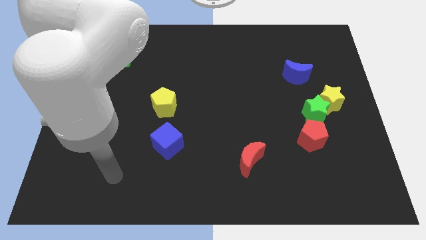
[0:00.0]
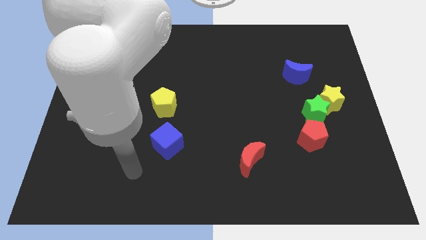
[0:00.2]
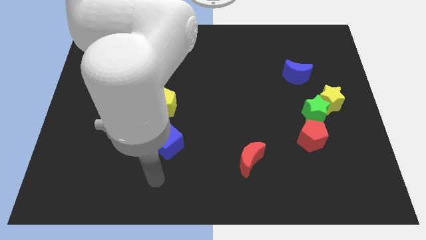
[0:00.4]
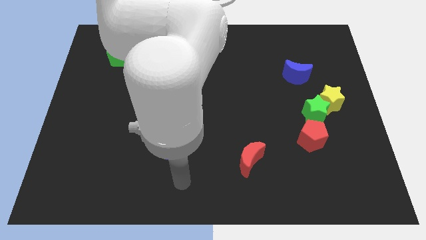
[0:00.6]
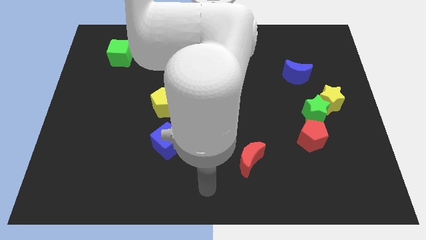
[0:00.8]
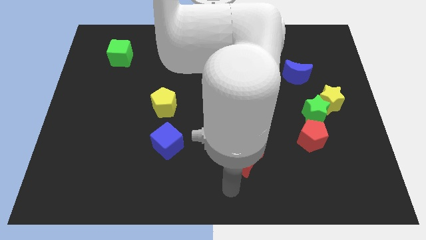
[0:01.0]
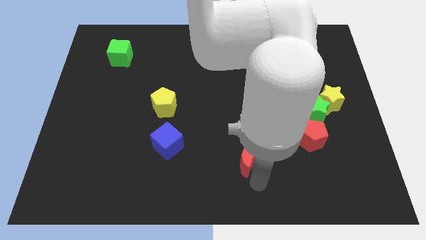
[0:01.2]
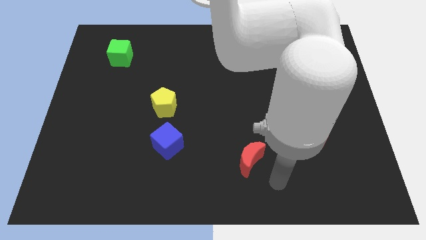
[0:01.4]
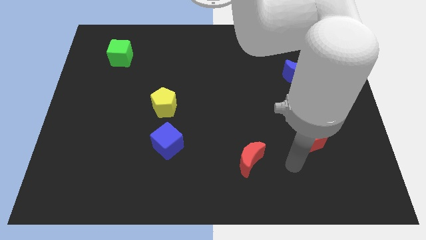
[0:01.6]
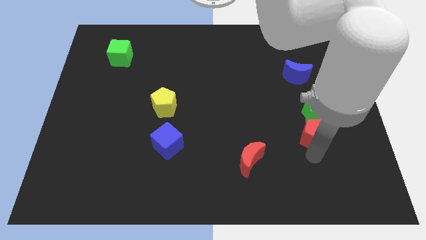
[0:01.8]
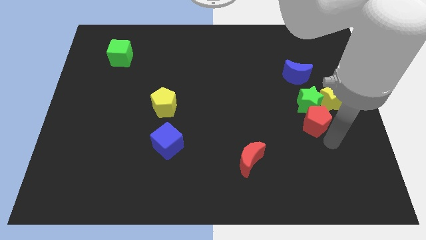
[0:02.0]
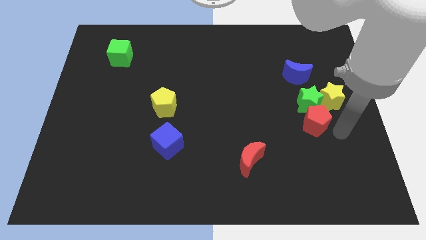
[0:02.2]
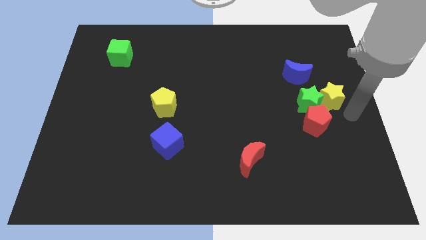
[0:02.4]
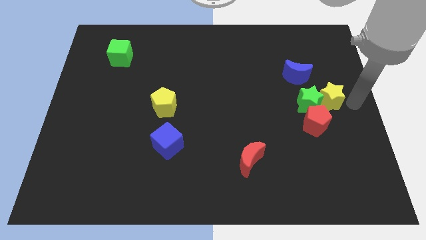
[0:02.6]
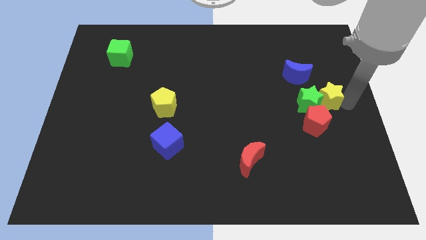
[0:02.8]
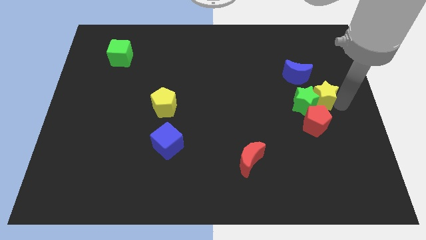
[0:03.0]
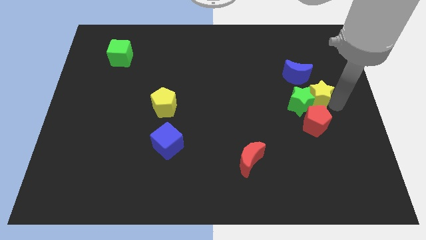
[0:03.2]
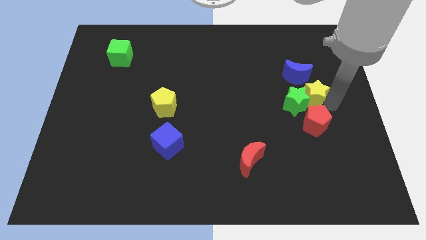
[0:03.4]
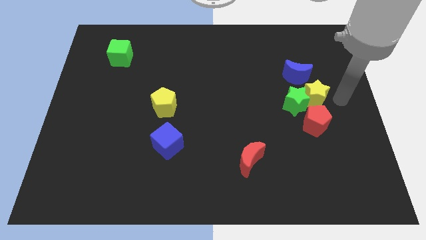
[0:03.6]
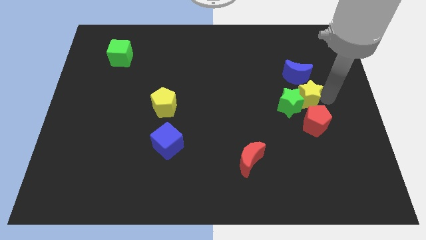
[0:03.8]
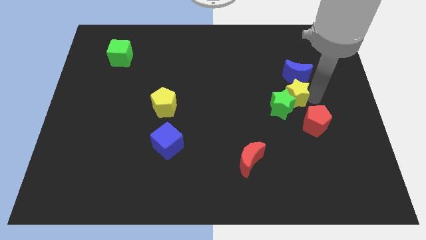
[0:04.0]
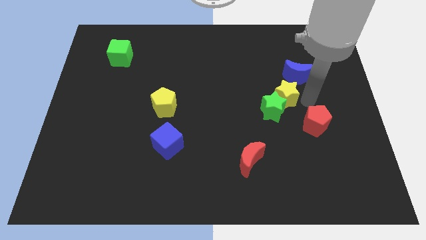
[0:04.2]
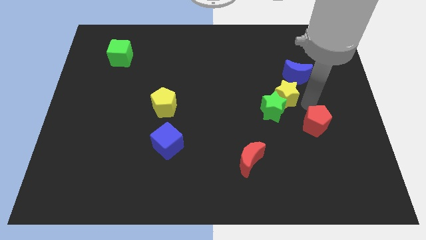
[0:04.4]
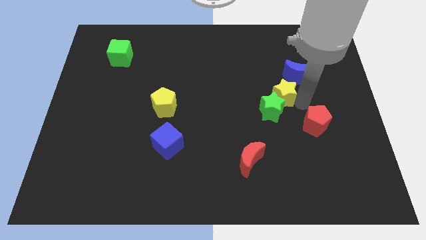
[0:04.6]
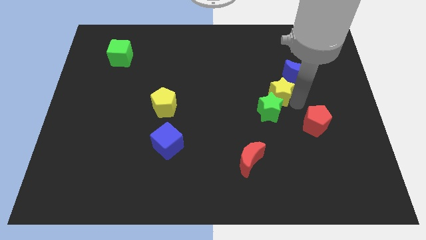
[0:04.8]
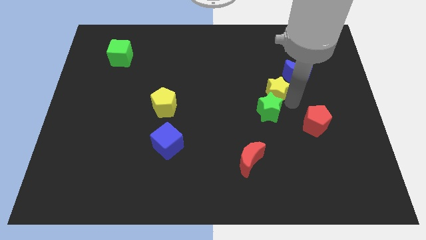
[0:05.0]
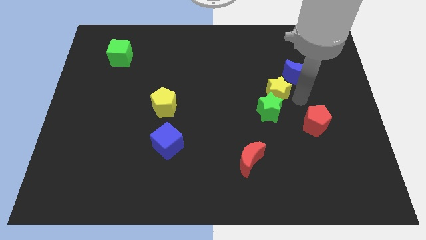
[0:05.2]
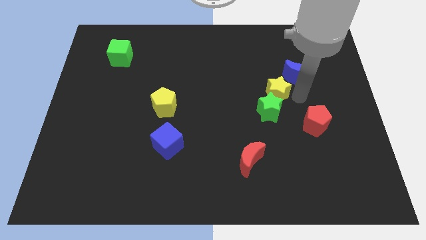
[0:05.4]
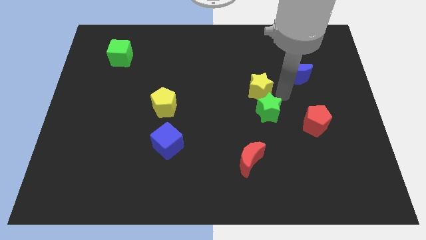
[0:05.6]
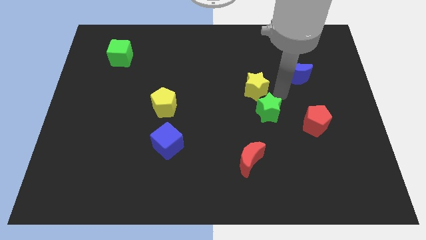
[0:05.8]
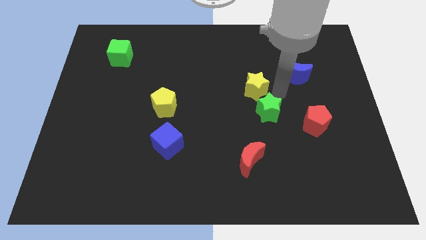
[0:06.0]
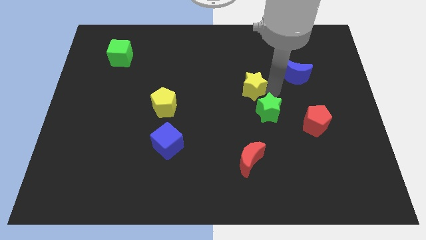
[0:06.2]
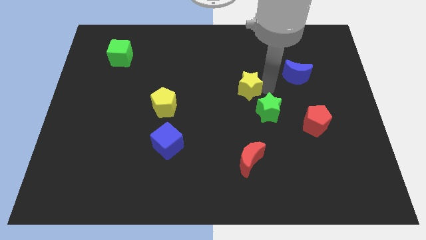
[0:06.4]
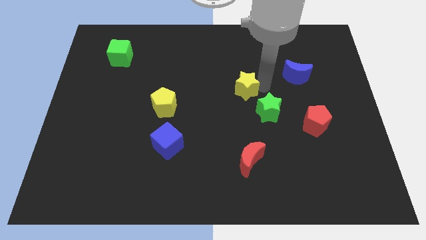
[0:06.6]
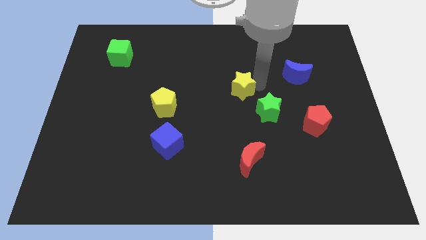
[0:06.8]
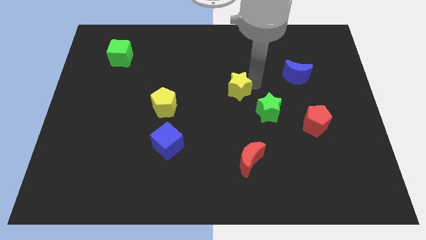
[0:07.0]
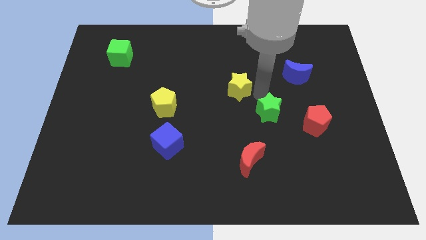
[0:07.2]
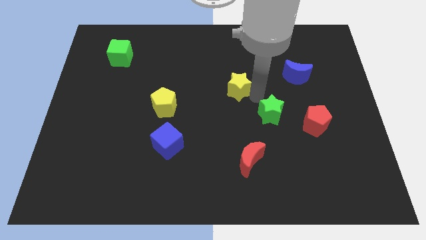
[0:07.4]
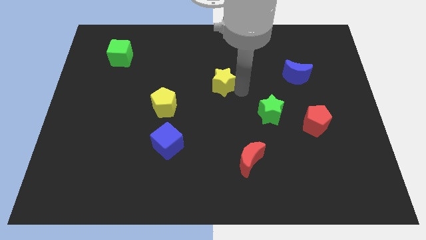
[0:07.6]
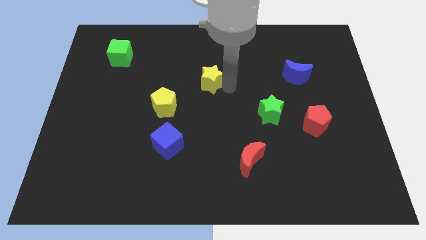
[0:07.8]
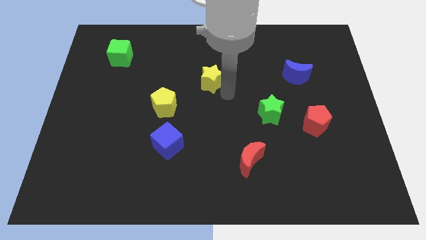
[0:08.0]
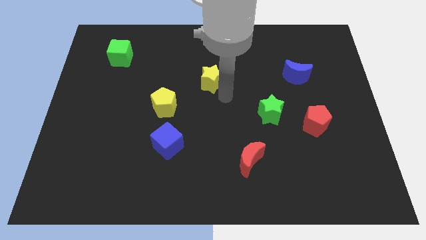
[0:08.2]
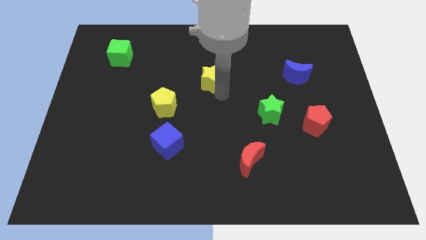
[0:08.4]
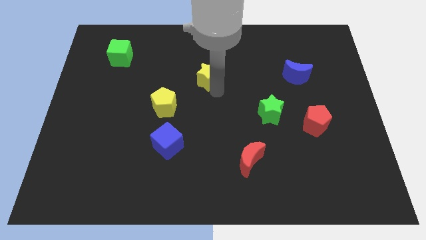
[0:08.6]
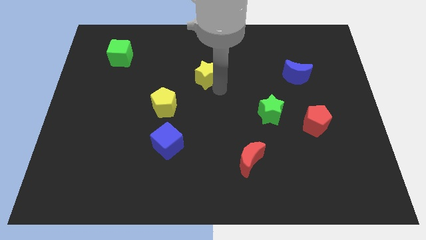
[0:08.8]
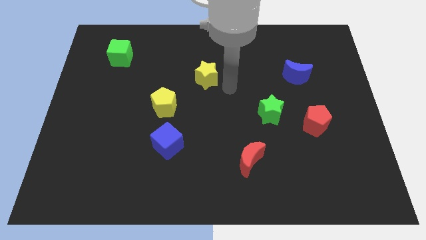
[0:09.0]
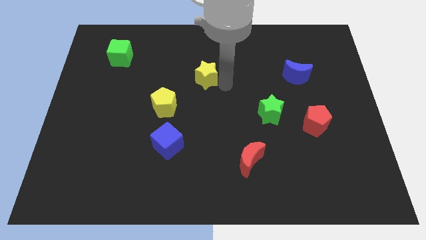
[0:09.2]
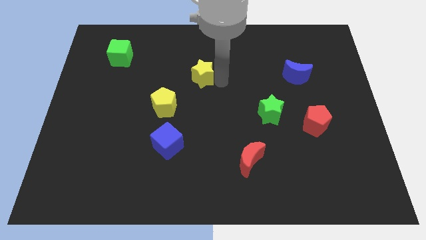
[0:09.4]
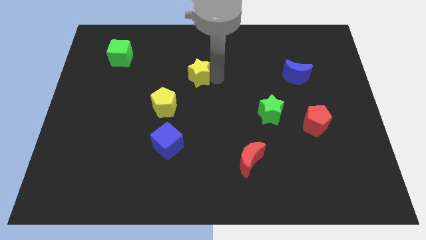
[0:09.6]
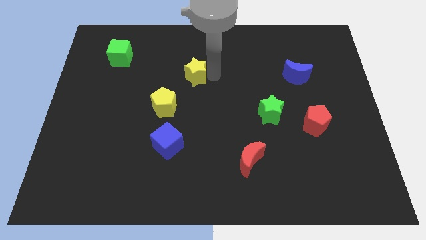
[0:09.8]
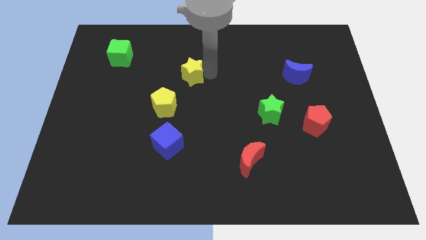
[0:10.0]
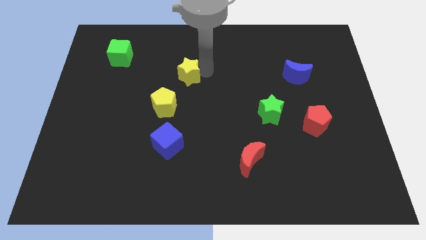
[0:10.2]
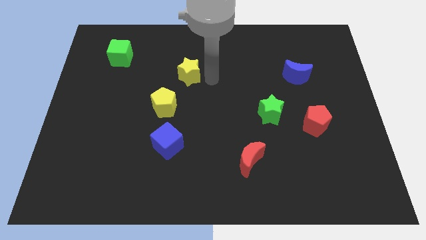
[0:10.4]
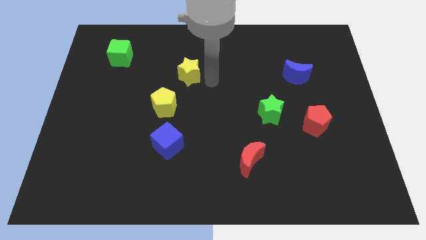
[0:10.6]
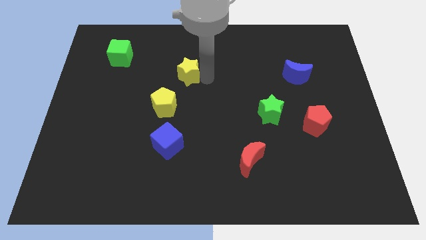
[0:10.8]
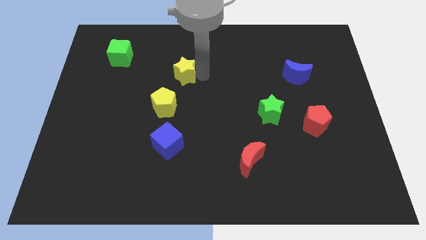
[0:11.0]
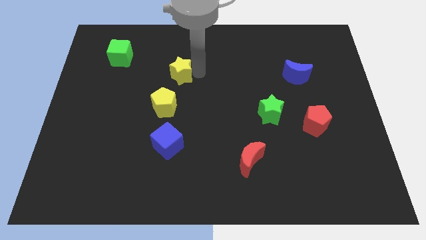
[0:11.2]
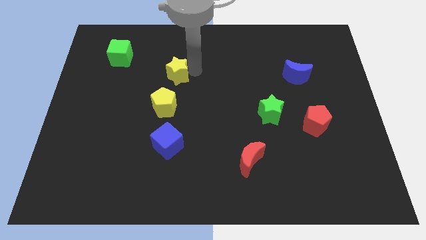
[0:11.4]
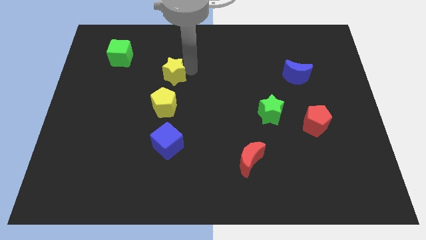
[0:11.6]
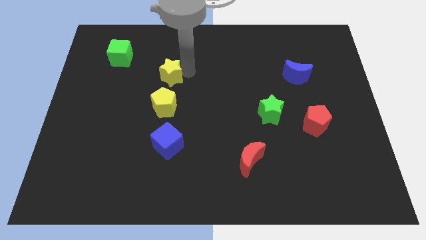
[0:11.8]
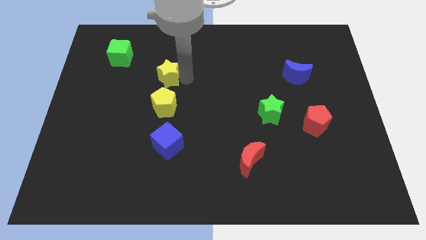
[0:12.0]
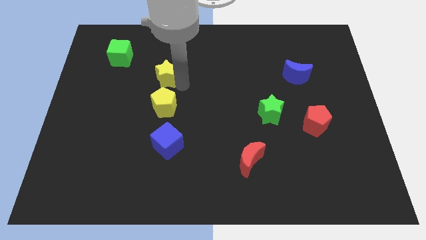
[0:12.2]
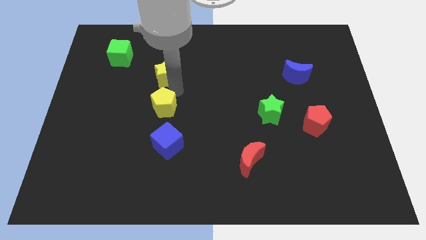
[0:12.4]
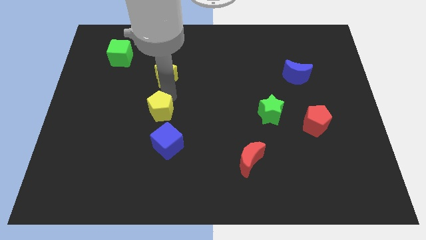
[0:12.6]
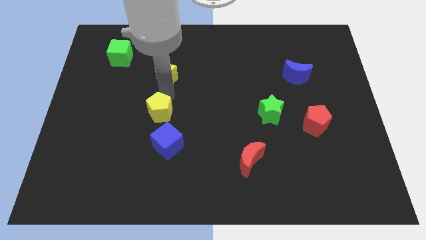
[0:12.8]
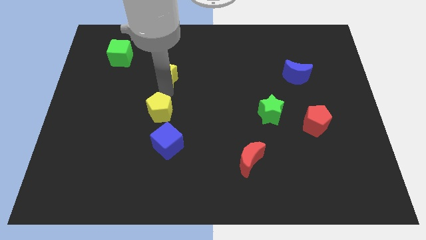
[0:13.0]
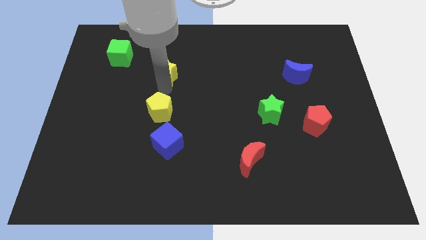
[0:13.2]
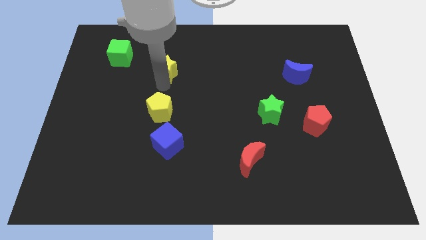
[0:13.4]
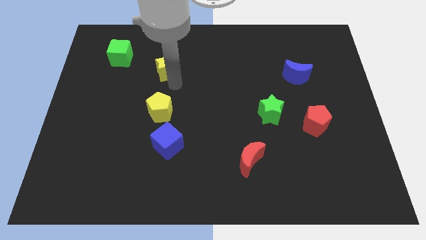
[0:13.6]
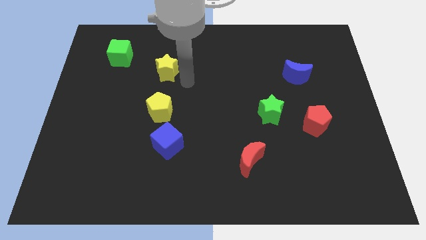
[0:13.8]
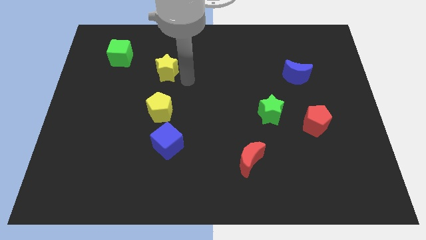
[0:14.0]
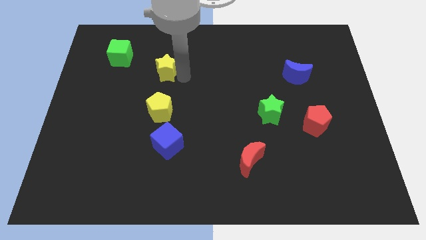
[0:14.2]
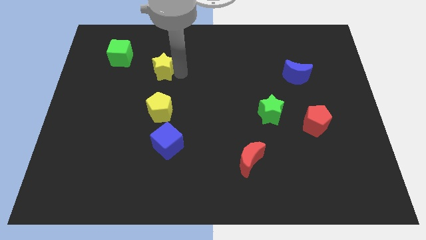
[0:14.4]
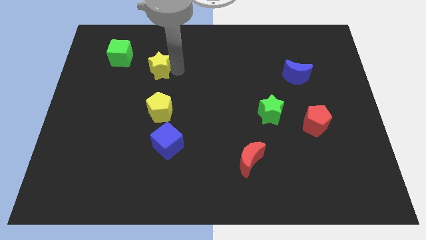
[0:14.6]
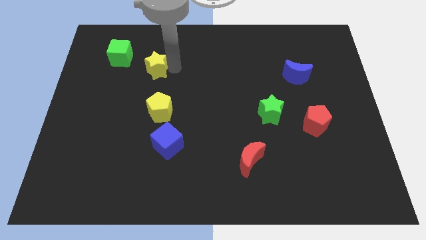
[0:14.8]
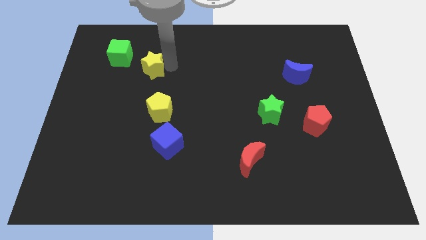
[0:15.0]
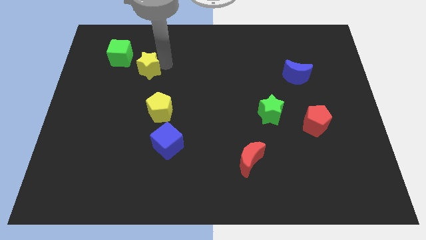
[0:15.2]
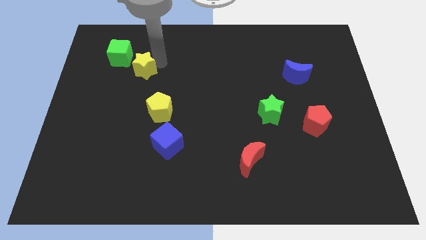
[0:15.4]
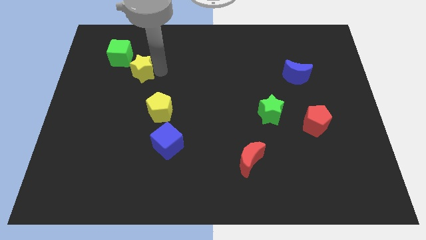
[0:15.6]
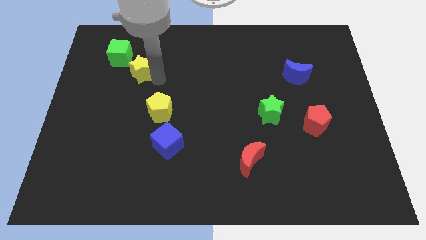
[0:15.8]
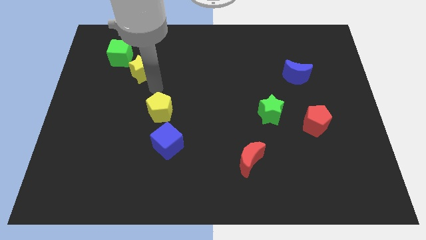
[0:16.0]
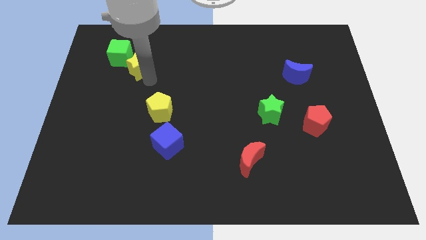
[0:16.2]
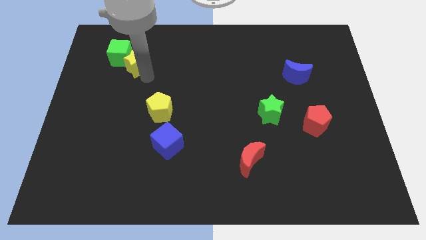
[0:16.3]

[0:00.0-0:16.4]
slide the yellow star close to the green cube
